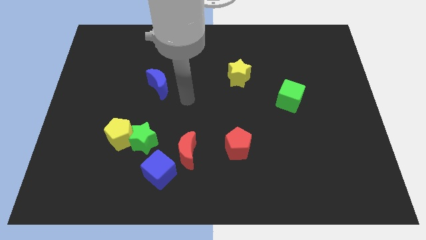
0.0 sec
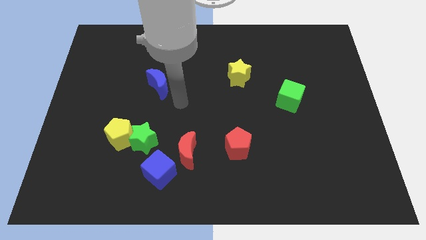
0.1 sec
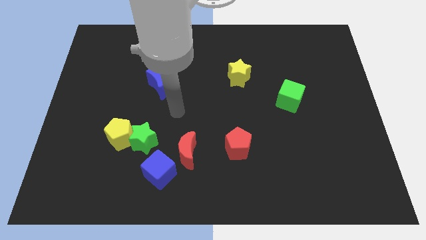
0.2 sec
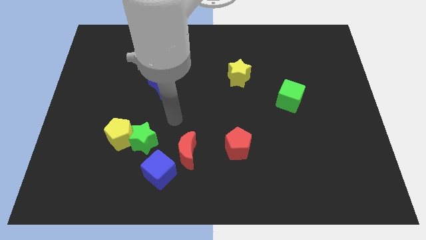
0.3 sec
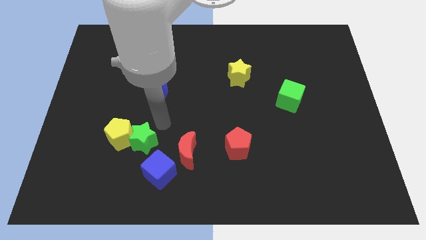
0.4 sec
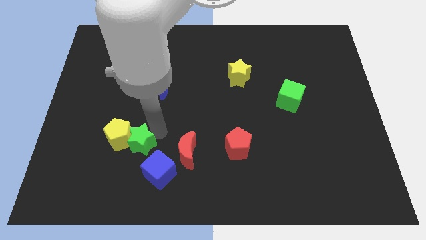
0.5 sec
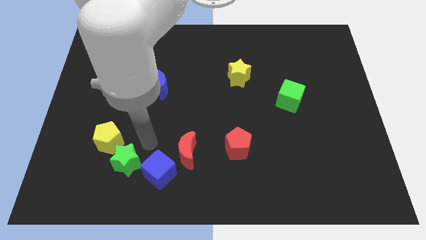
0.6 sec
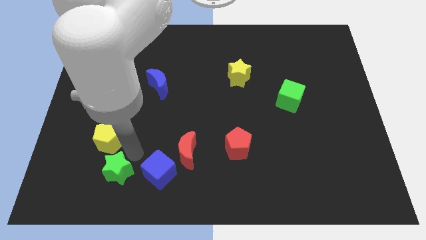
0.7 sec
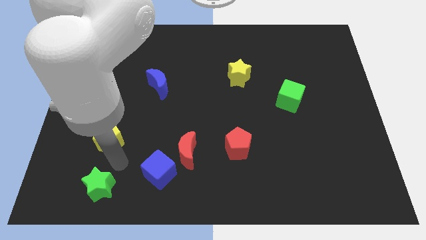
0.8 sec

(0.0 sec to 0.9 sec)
pull the yellow pentagon apart from the green star

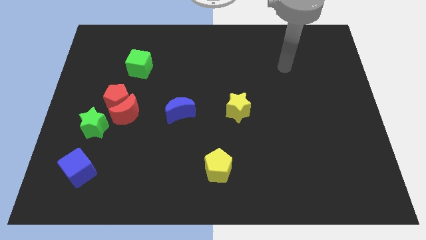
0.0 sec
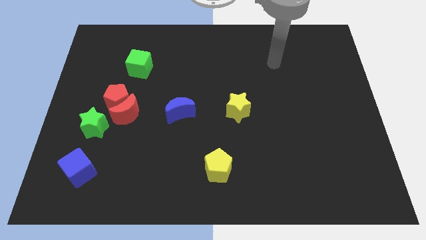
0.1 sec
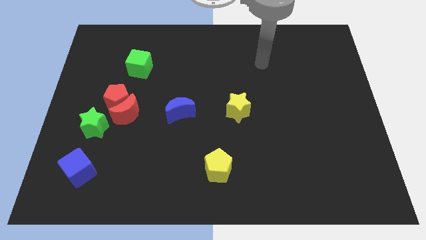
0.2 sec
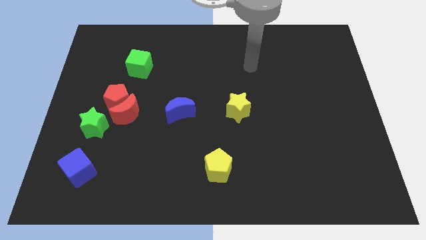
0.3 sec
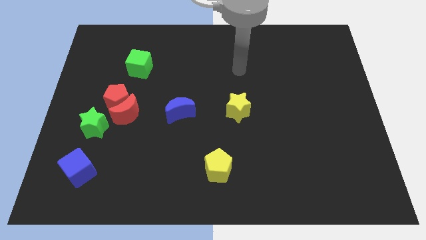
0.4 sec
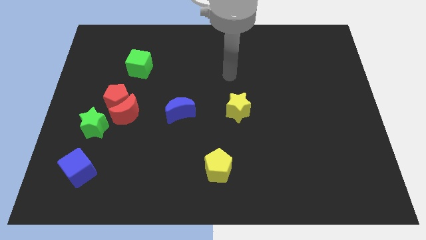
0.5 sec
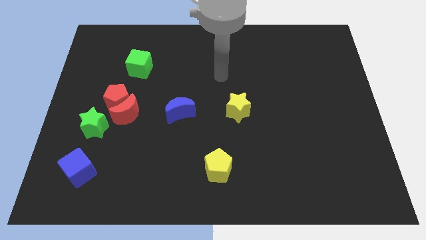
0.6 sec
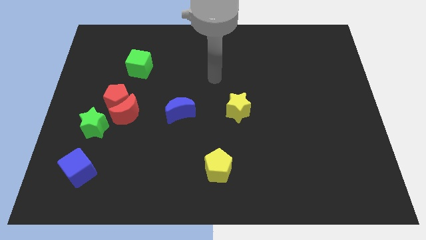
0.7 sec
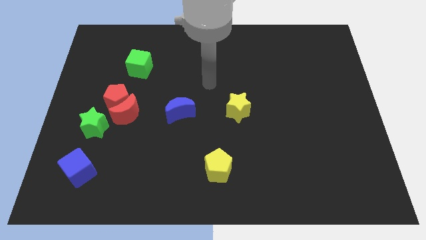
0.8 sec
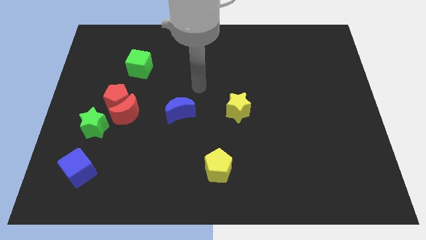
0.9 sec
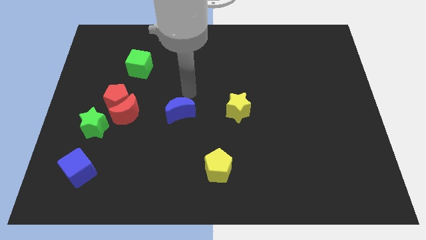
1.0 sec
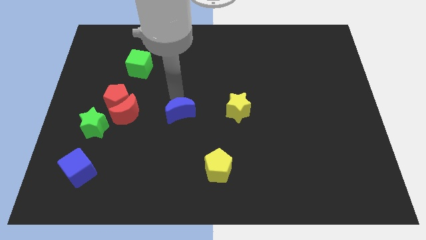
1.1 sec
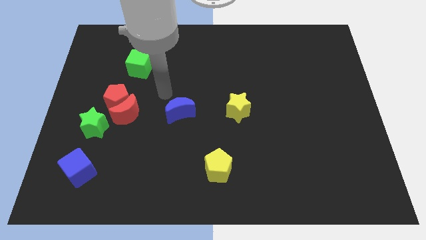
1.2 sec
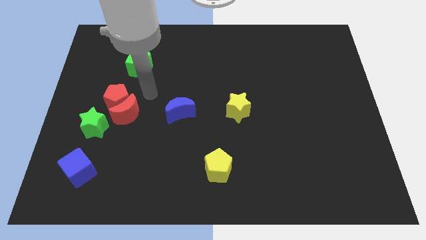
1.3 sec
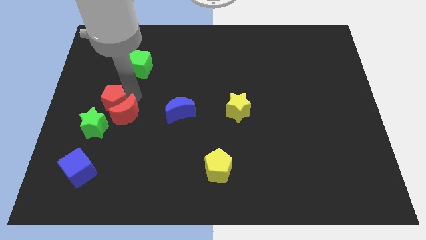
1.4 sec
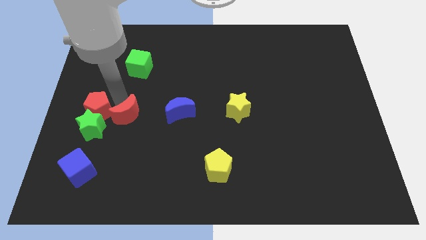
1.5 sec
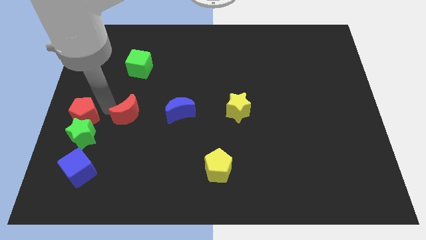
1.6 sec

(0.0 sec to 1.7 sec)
separate the red moon from the red pentagon and green star

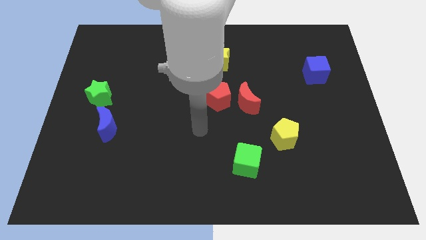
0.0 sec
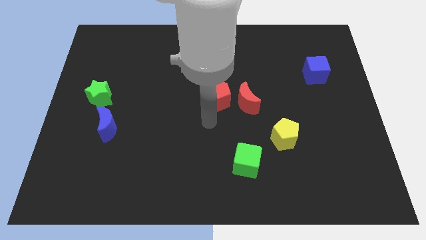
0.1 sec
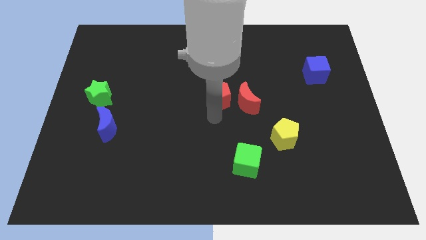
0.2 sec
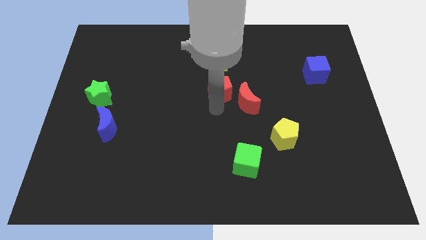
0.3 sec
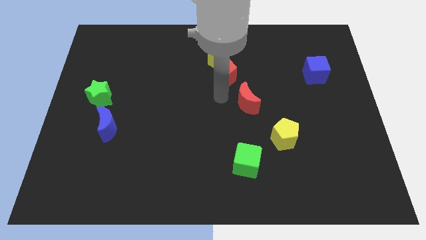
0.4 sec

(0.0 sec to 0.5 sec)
separate the red moon from the red pentagon

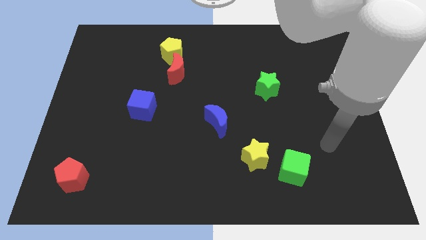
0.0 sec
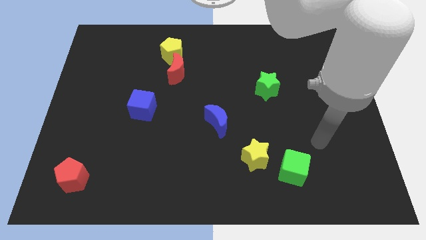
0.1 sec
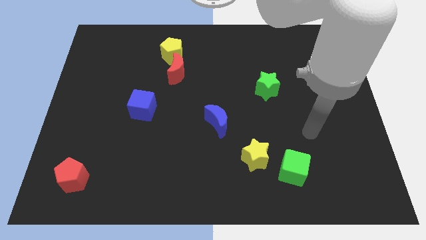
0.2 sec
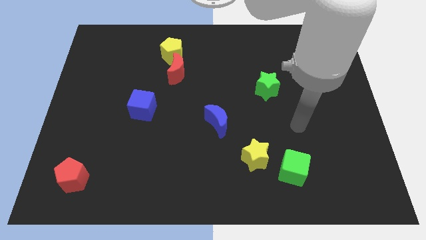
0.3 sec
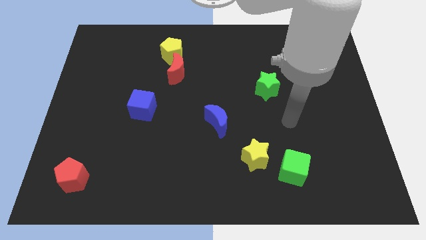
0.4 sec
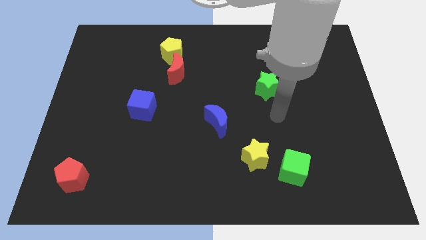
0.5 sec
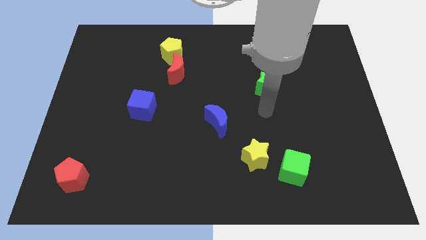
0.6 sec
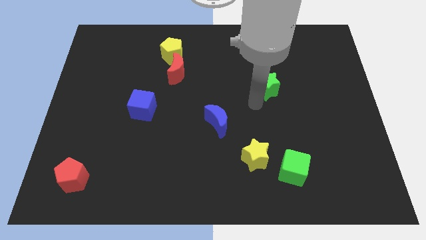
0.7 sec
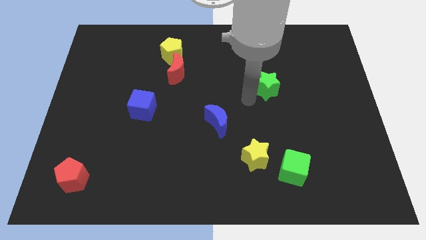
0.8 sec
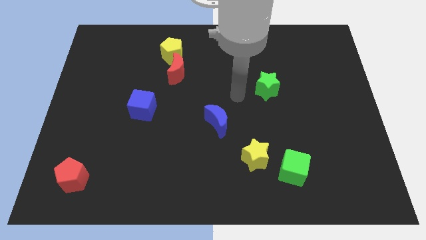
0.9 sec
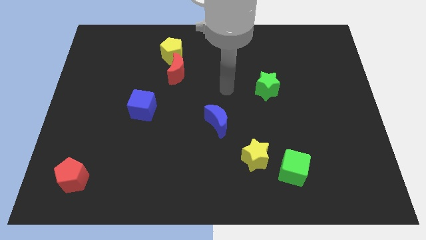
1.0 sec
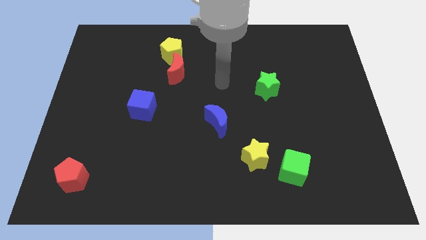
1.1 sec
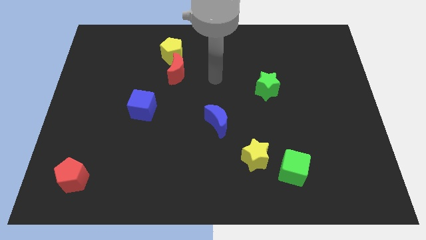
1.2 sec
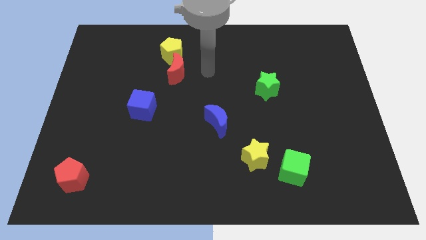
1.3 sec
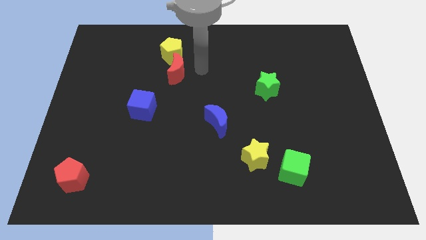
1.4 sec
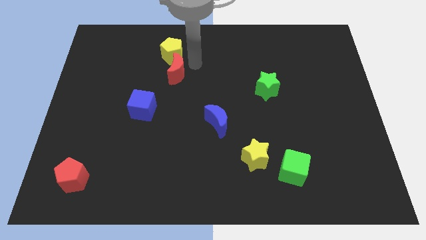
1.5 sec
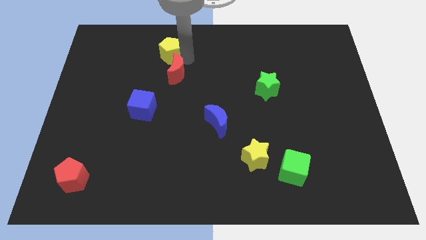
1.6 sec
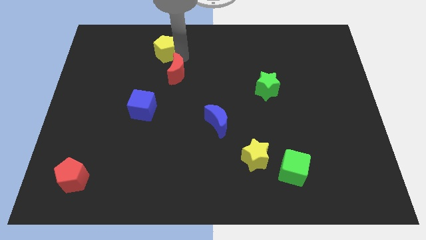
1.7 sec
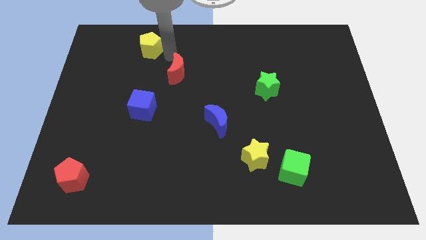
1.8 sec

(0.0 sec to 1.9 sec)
move the red moon away from the yellow pentagon

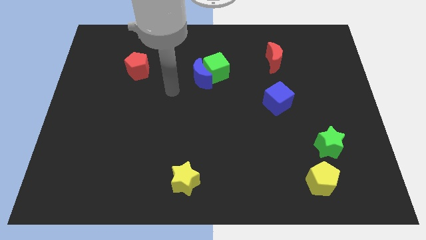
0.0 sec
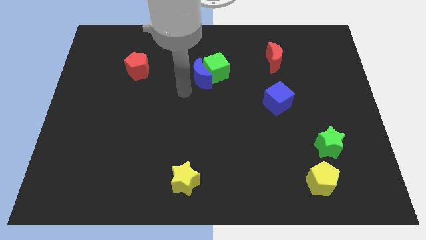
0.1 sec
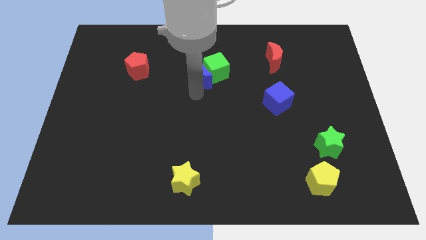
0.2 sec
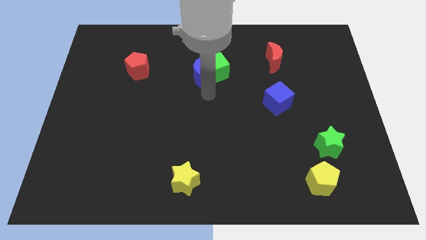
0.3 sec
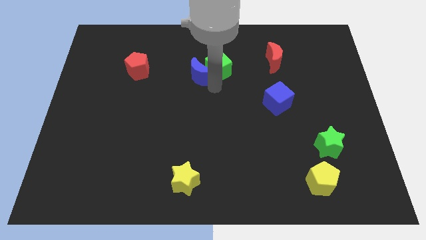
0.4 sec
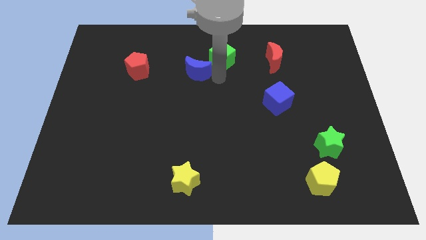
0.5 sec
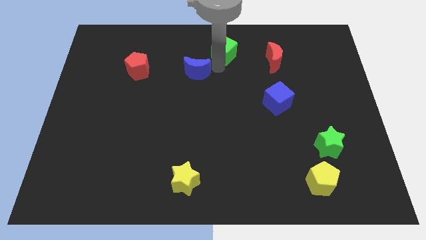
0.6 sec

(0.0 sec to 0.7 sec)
pull the blue moon apart from the green cube

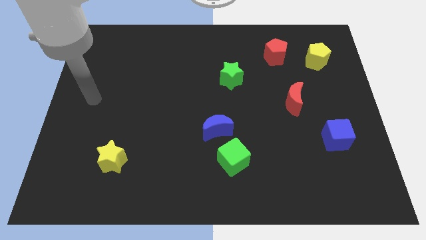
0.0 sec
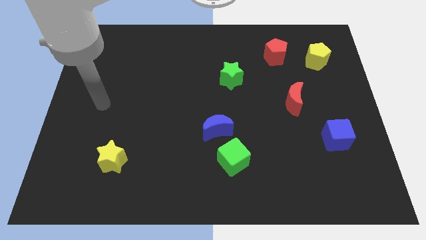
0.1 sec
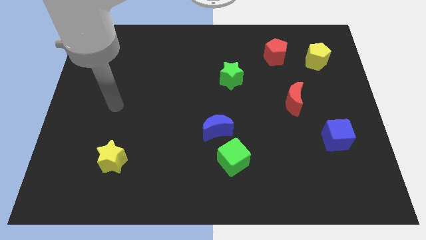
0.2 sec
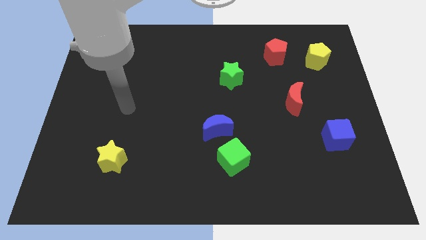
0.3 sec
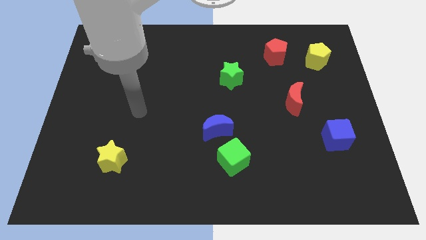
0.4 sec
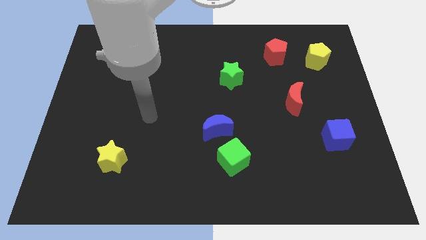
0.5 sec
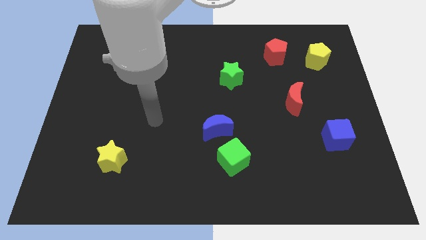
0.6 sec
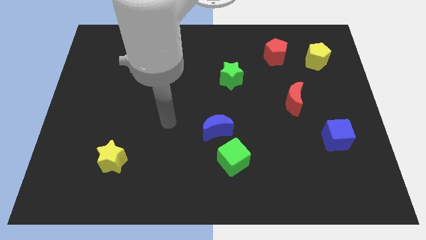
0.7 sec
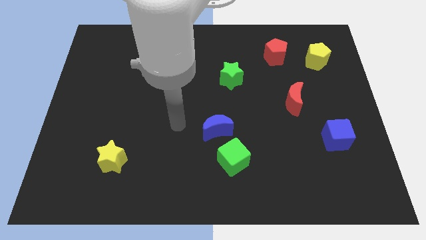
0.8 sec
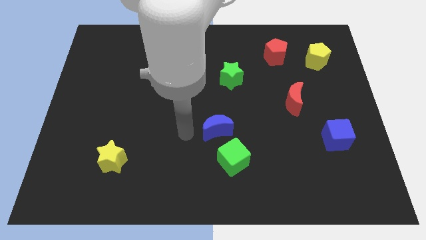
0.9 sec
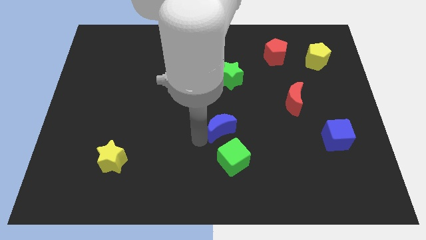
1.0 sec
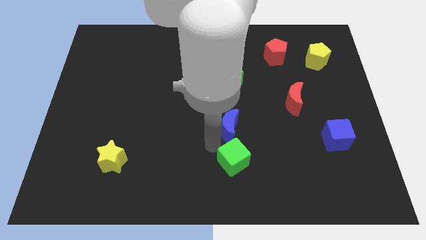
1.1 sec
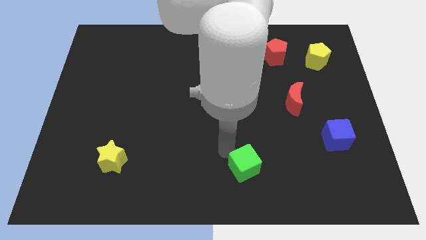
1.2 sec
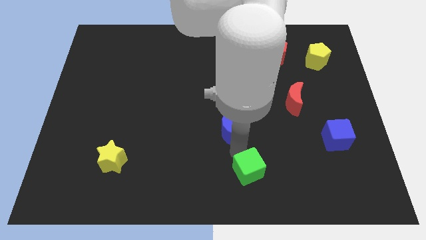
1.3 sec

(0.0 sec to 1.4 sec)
separate the blue moon from the green cube

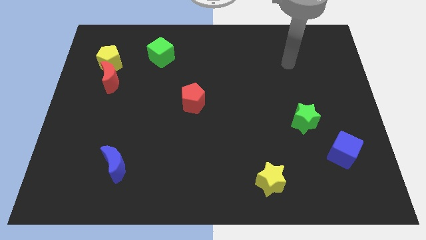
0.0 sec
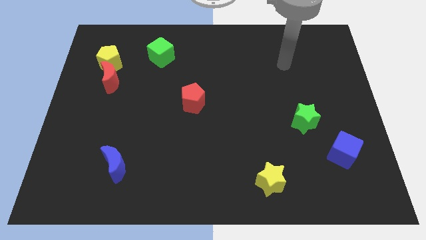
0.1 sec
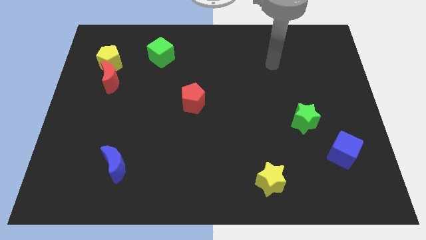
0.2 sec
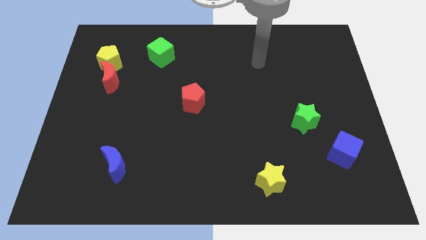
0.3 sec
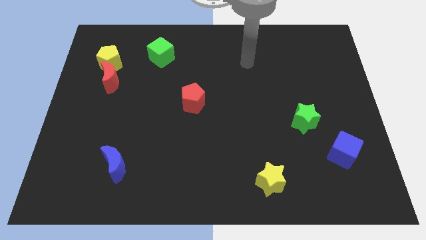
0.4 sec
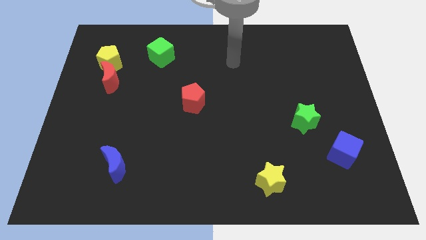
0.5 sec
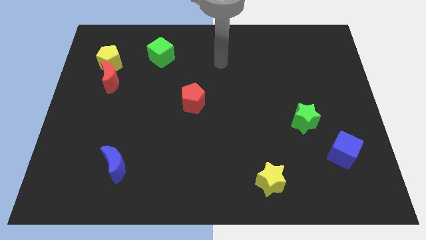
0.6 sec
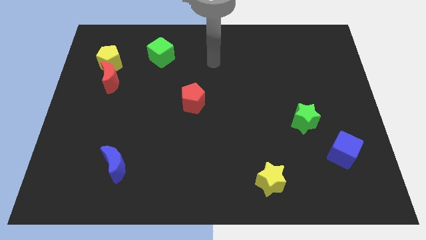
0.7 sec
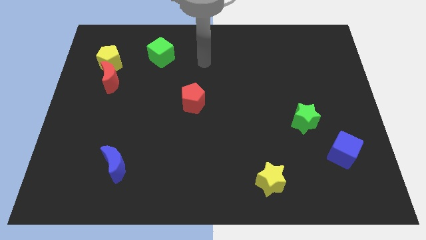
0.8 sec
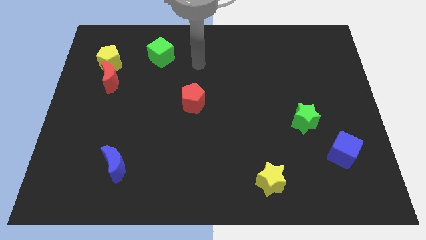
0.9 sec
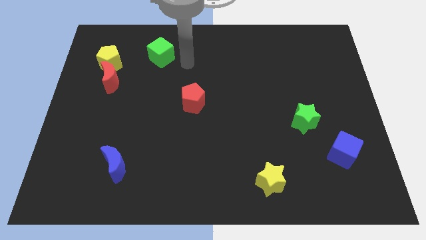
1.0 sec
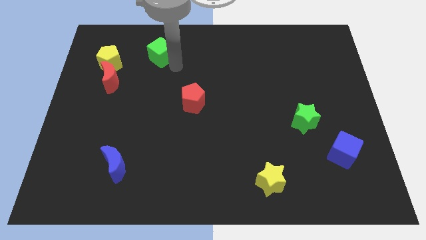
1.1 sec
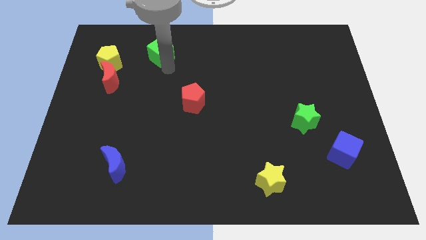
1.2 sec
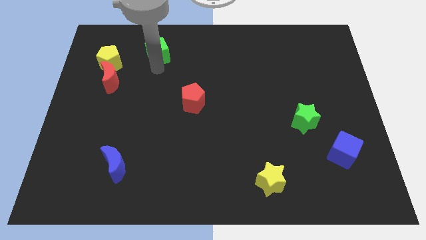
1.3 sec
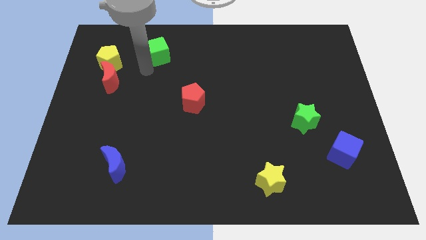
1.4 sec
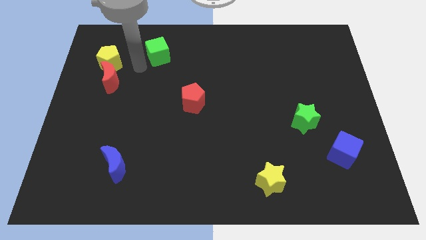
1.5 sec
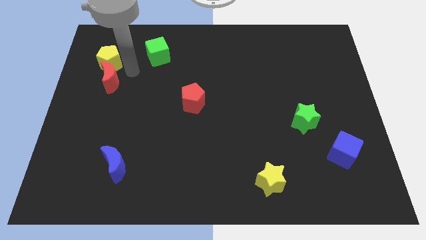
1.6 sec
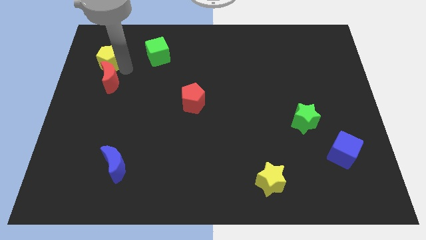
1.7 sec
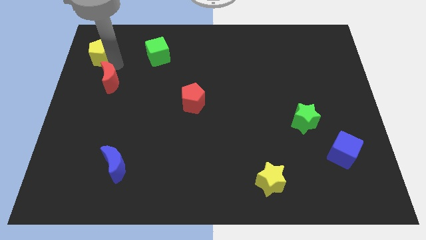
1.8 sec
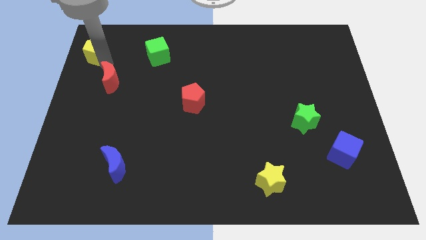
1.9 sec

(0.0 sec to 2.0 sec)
separate the red moon from the yellow pentagon

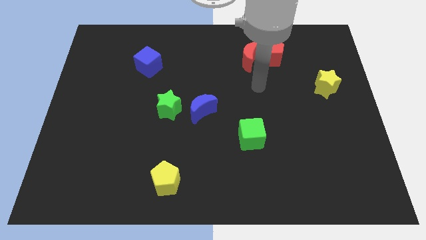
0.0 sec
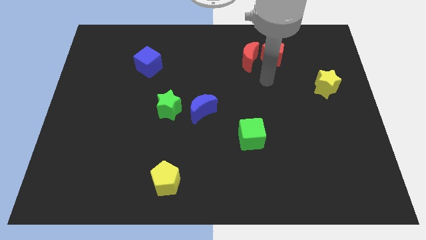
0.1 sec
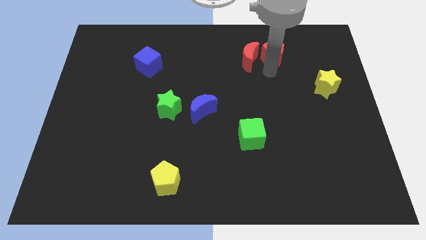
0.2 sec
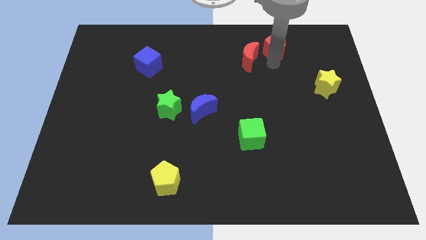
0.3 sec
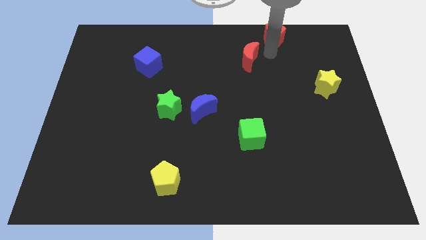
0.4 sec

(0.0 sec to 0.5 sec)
move the red moon away from the red pentagon
